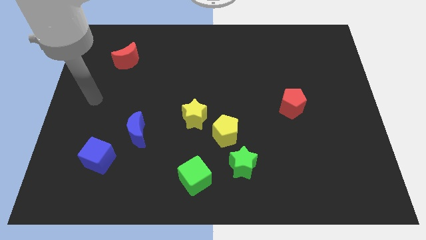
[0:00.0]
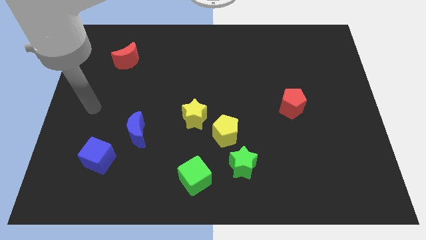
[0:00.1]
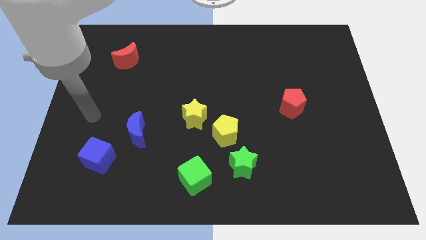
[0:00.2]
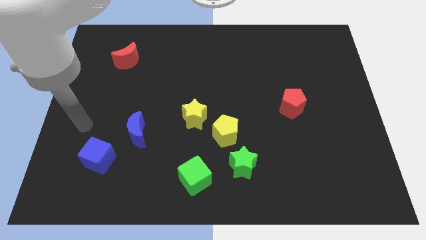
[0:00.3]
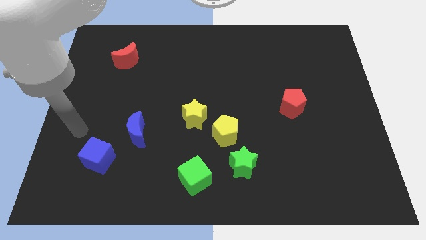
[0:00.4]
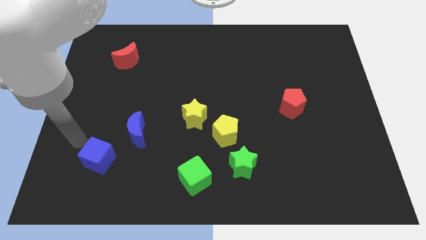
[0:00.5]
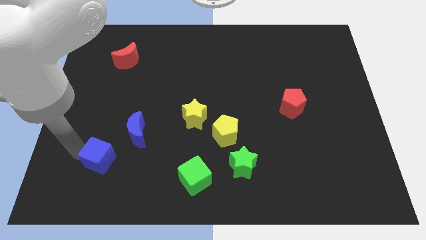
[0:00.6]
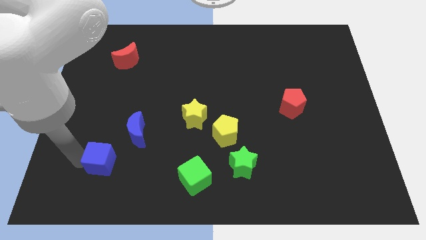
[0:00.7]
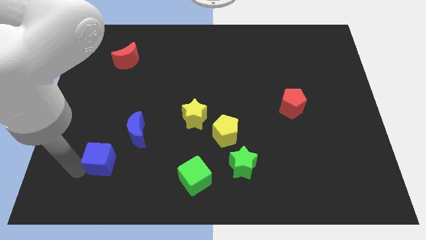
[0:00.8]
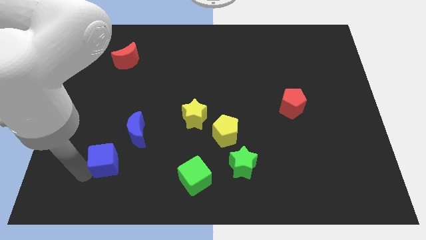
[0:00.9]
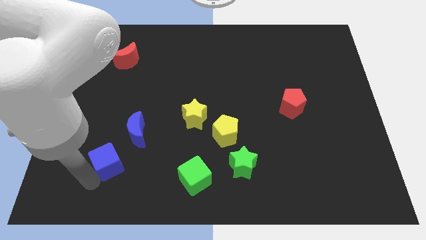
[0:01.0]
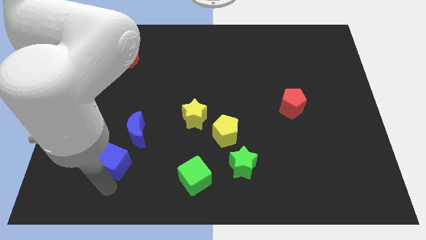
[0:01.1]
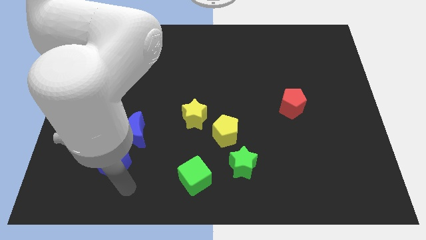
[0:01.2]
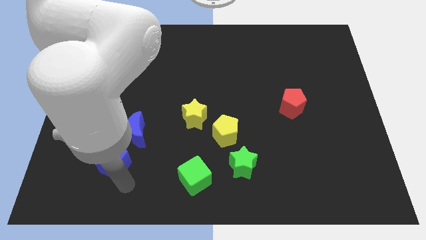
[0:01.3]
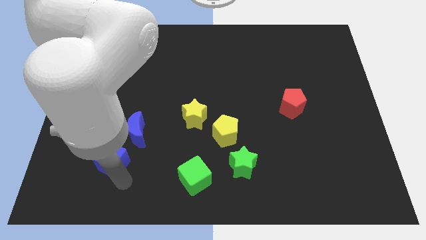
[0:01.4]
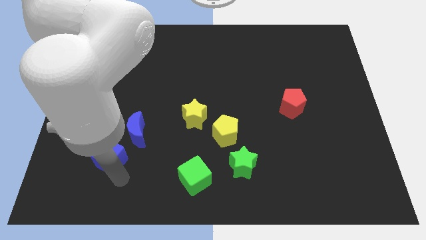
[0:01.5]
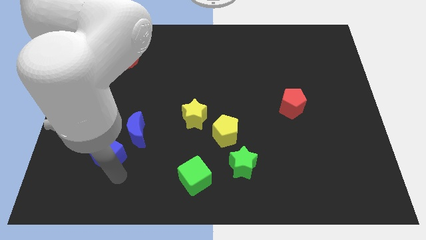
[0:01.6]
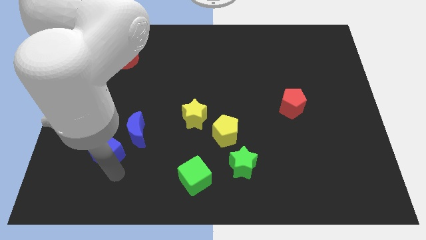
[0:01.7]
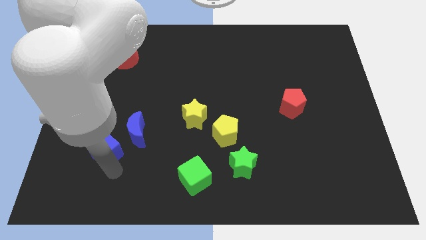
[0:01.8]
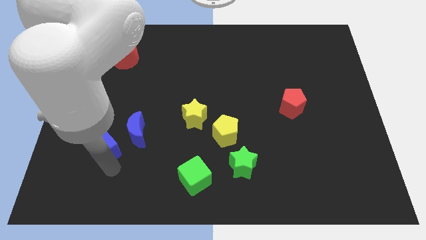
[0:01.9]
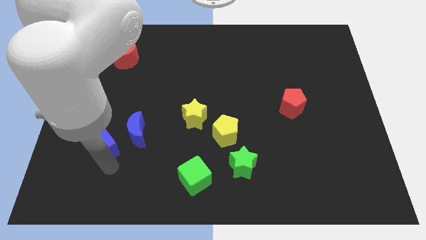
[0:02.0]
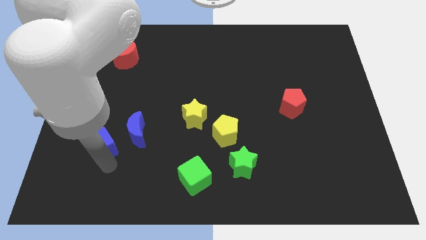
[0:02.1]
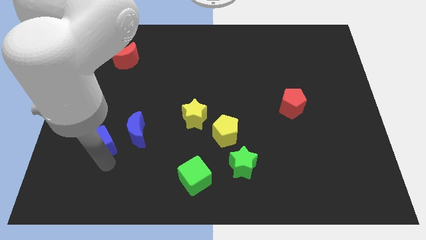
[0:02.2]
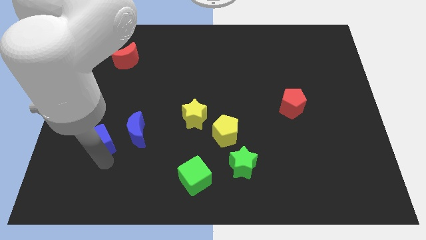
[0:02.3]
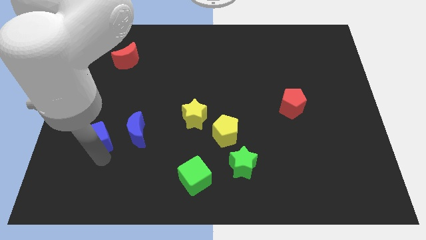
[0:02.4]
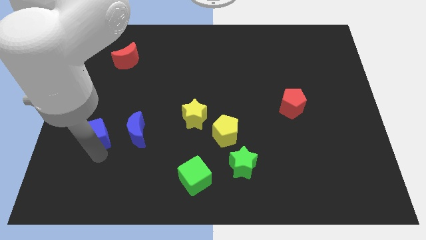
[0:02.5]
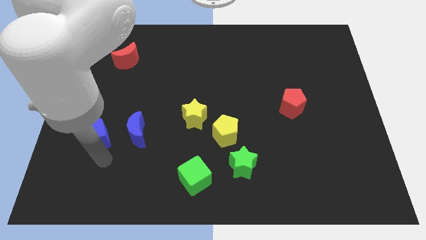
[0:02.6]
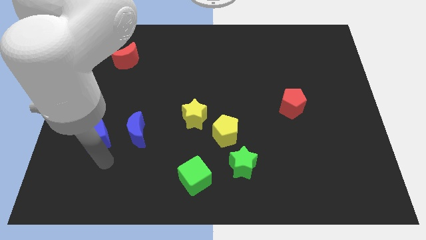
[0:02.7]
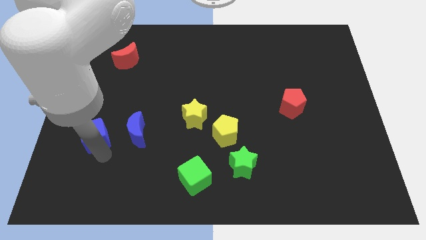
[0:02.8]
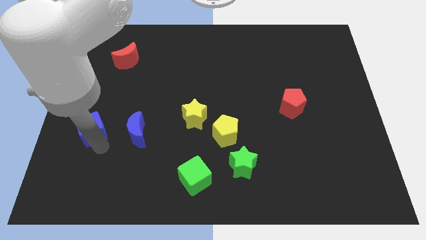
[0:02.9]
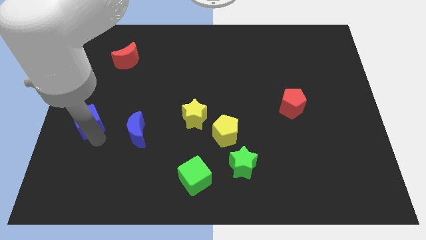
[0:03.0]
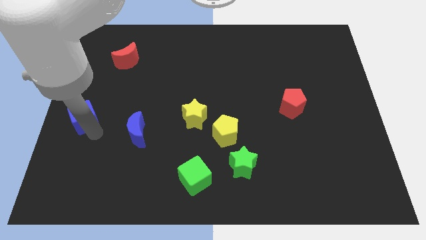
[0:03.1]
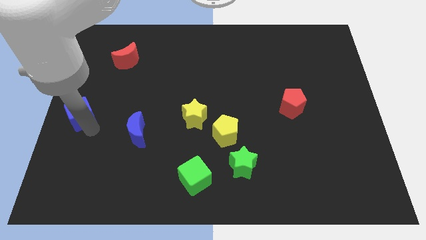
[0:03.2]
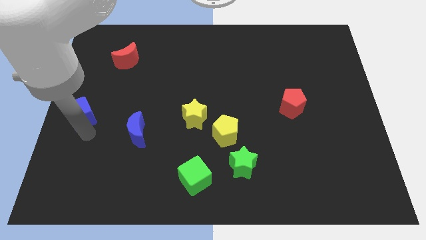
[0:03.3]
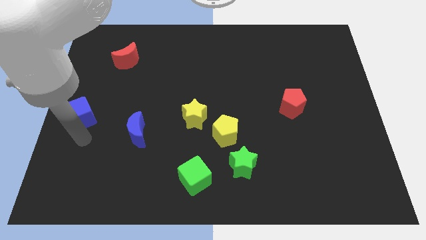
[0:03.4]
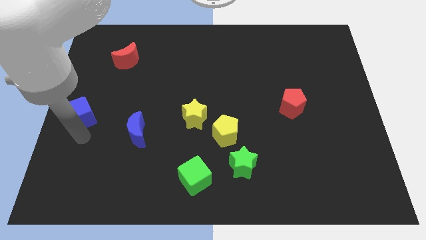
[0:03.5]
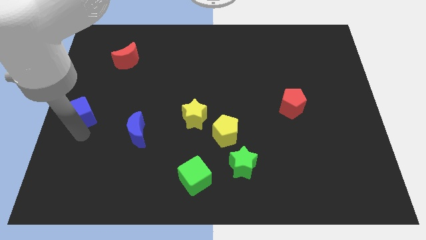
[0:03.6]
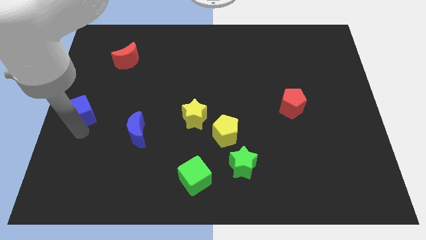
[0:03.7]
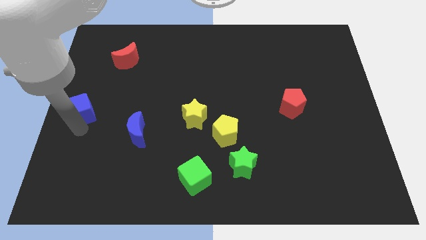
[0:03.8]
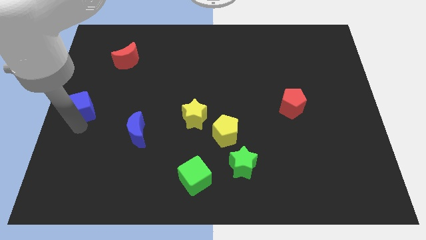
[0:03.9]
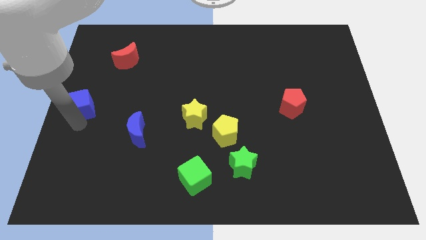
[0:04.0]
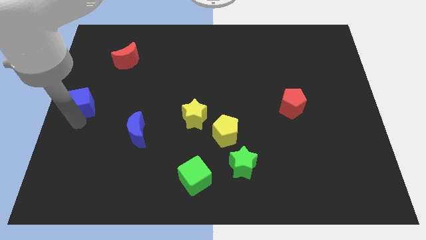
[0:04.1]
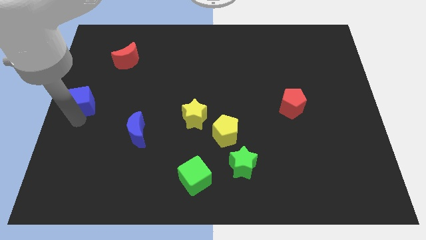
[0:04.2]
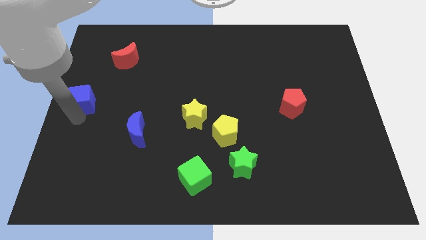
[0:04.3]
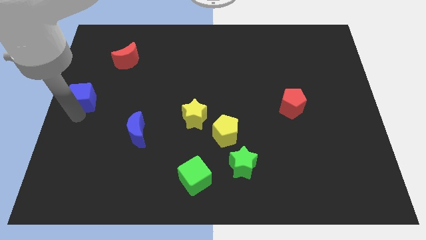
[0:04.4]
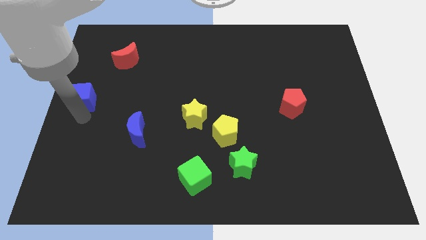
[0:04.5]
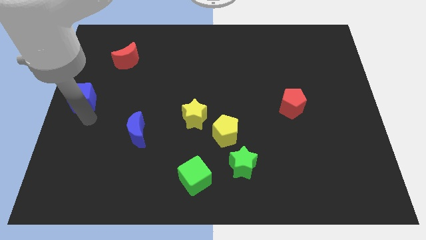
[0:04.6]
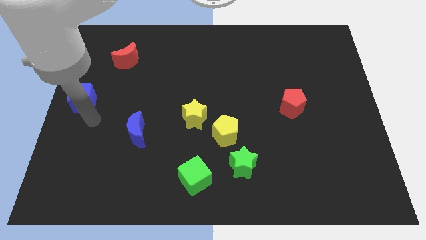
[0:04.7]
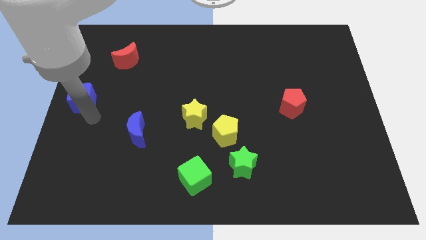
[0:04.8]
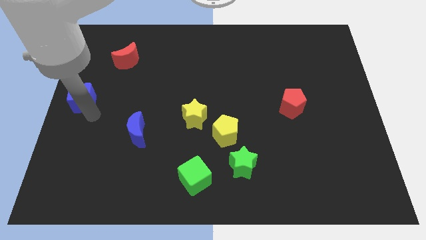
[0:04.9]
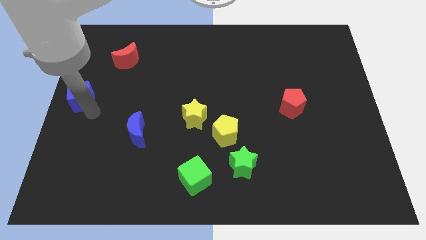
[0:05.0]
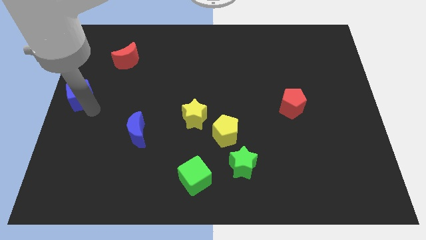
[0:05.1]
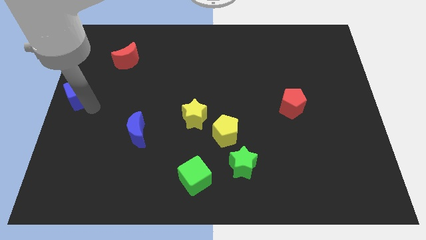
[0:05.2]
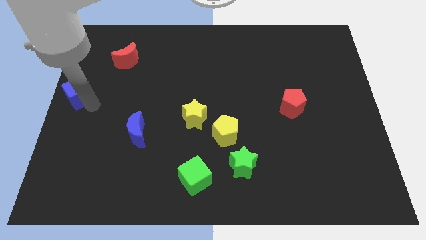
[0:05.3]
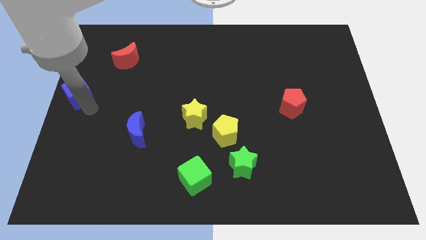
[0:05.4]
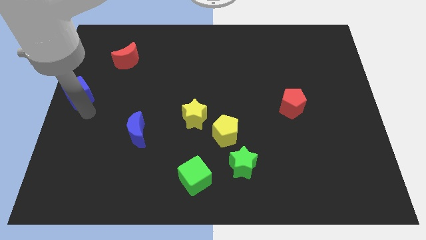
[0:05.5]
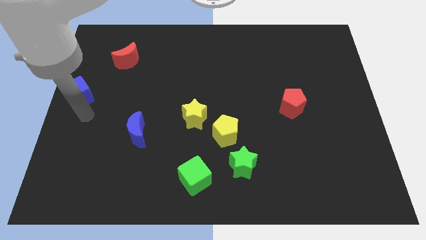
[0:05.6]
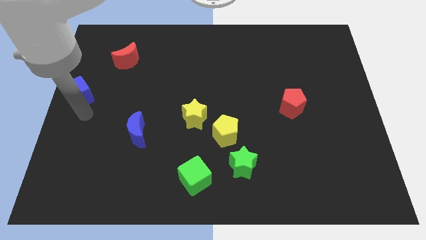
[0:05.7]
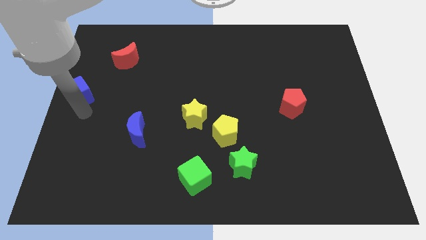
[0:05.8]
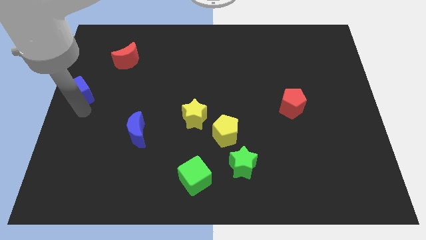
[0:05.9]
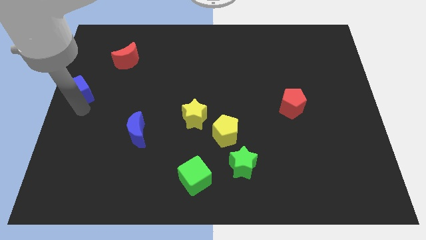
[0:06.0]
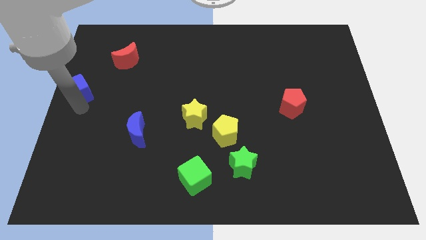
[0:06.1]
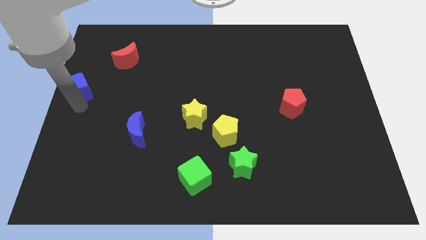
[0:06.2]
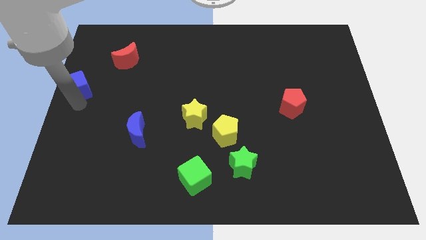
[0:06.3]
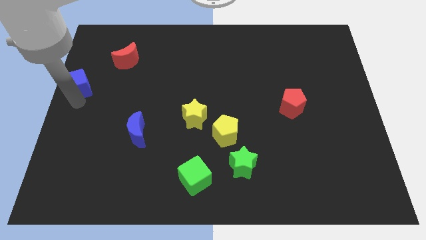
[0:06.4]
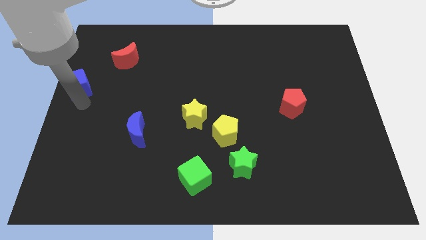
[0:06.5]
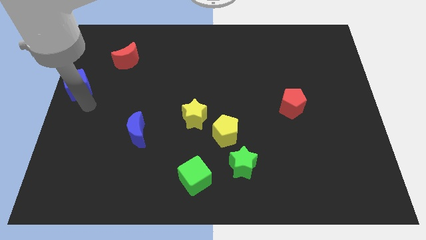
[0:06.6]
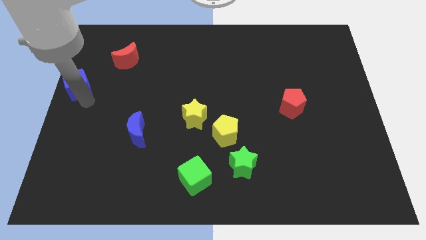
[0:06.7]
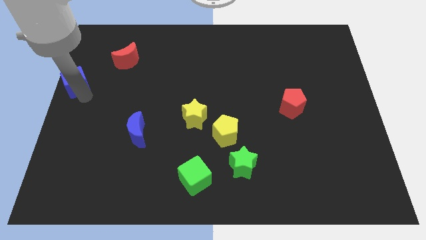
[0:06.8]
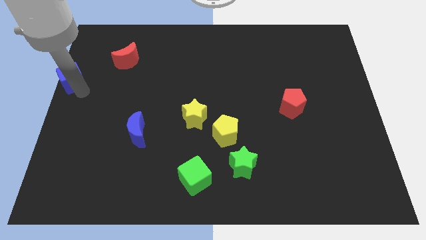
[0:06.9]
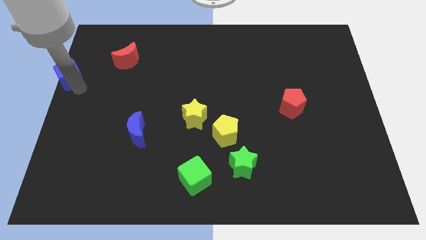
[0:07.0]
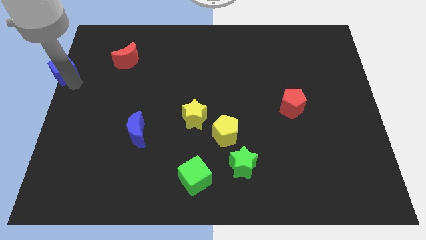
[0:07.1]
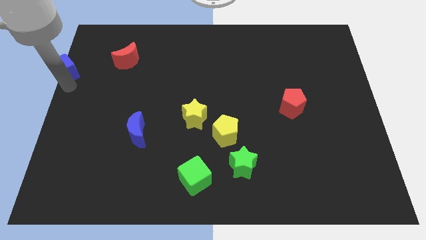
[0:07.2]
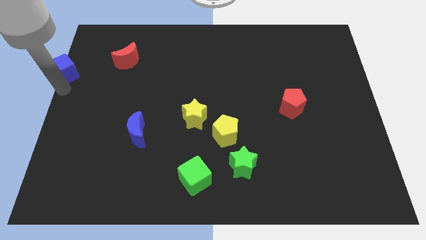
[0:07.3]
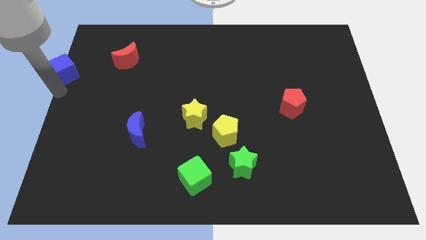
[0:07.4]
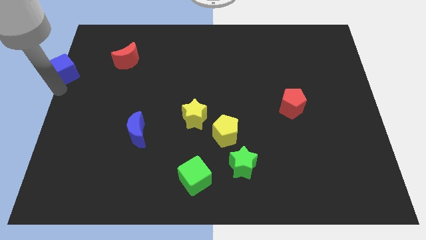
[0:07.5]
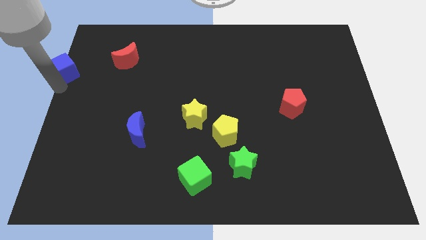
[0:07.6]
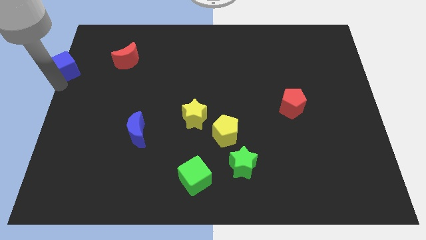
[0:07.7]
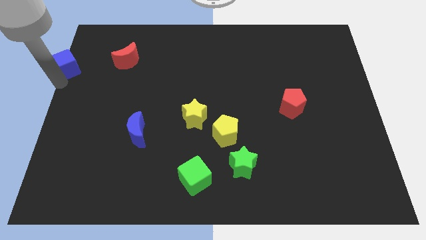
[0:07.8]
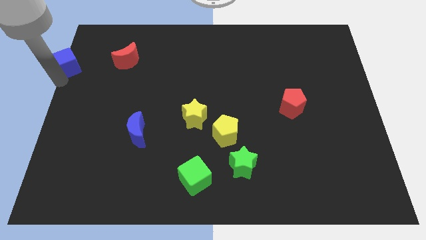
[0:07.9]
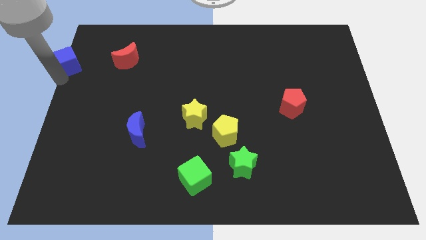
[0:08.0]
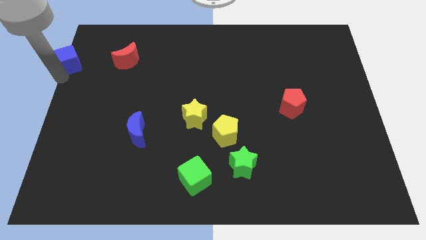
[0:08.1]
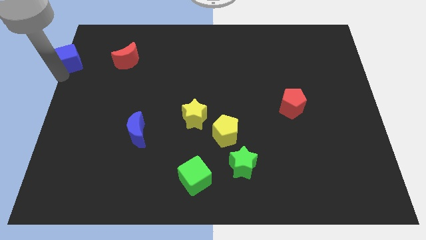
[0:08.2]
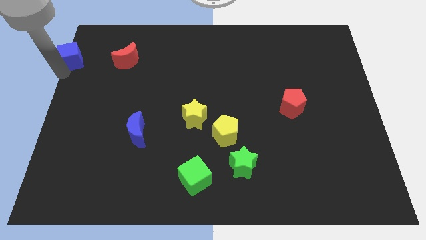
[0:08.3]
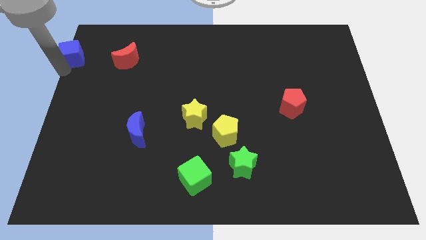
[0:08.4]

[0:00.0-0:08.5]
push the blue cube to the top left
